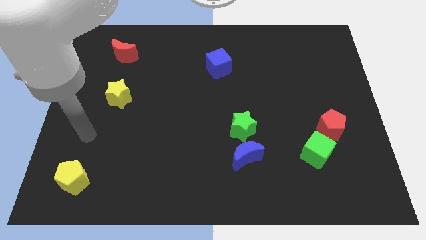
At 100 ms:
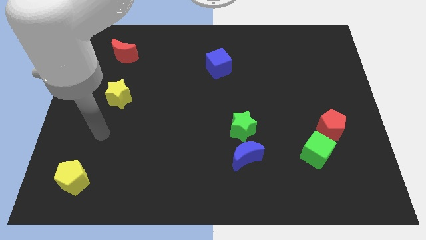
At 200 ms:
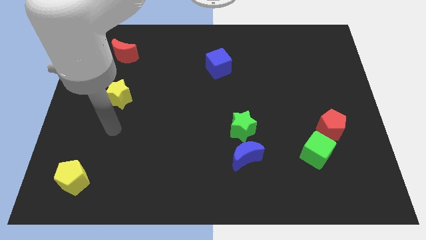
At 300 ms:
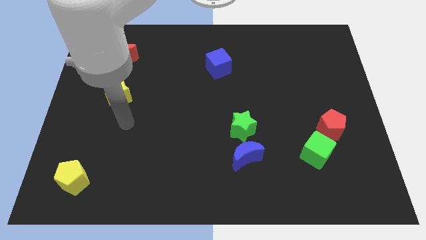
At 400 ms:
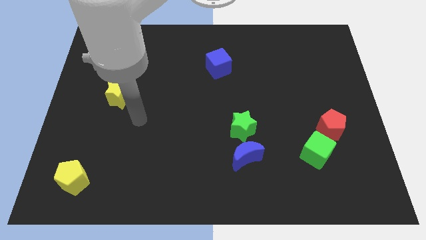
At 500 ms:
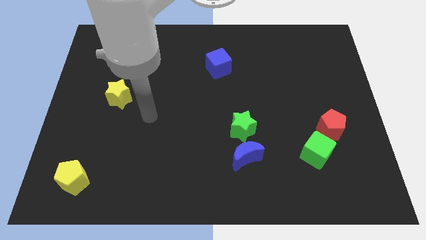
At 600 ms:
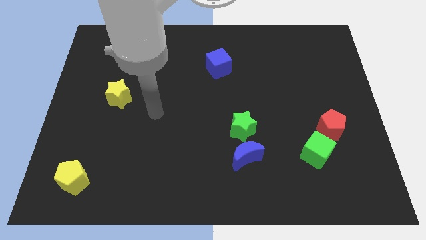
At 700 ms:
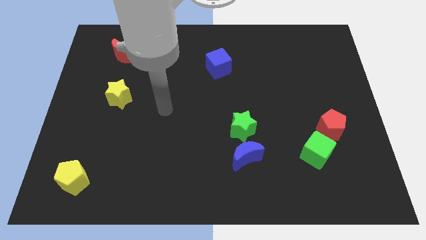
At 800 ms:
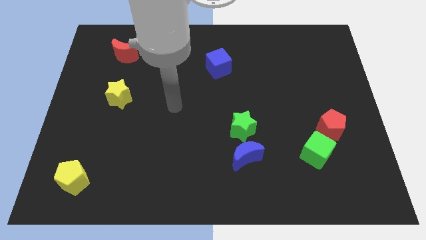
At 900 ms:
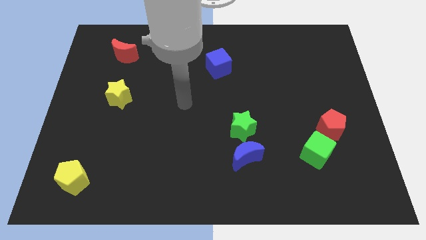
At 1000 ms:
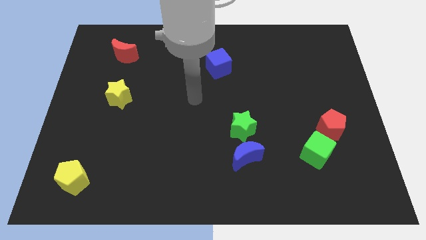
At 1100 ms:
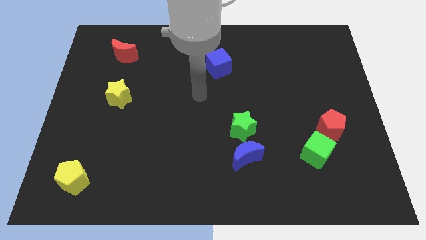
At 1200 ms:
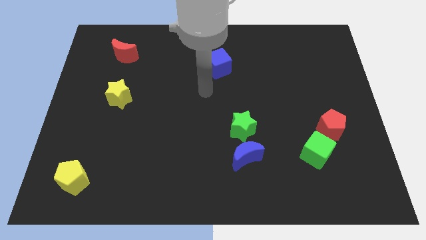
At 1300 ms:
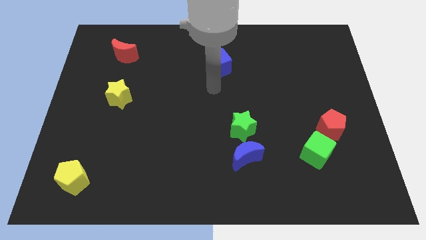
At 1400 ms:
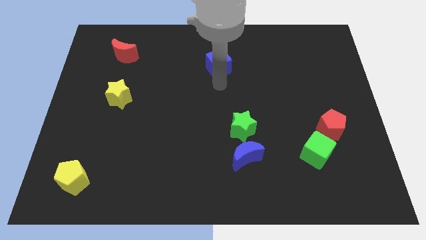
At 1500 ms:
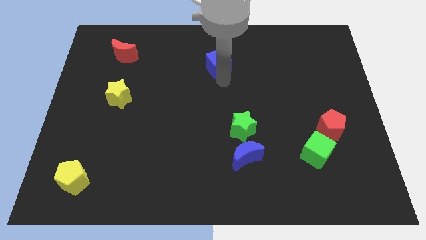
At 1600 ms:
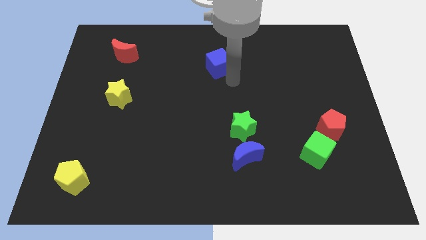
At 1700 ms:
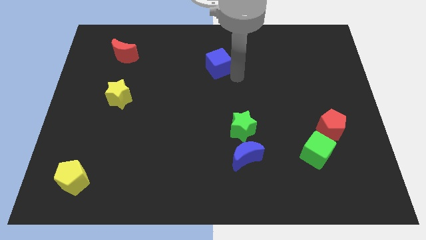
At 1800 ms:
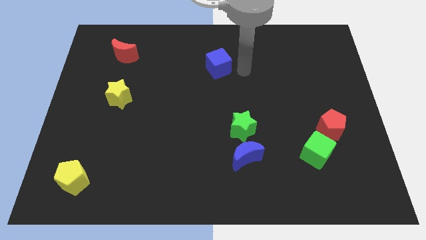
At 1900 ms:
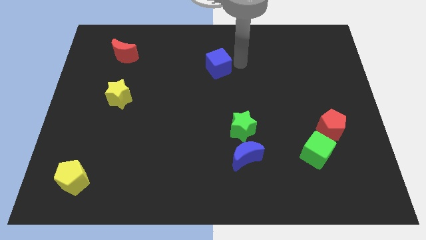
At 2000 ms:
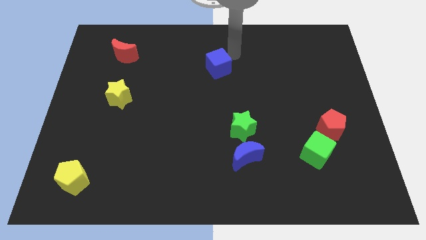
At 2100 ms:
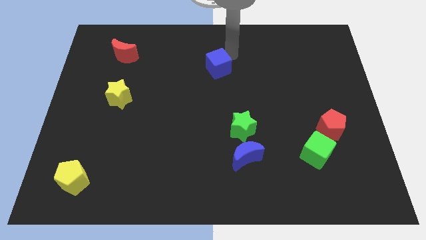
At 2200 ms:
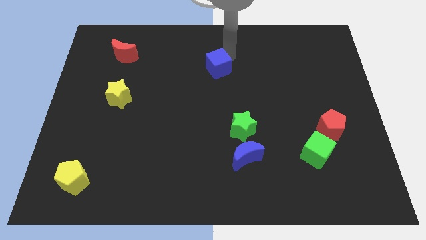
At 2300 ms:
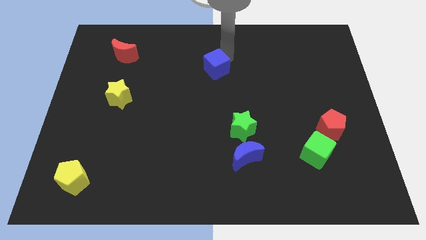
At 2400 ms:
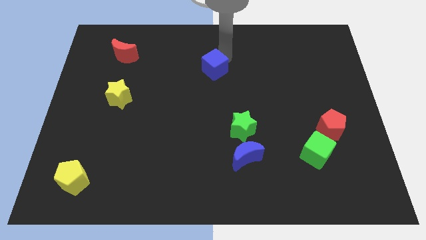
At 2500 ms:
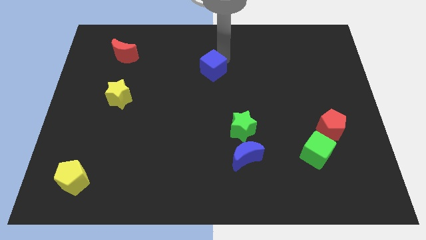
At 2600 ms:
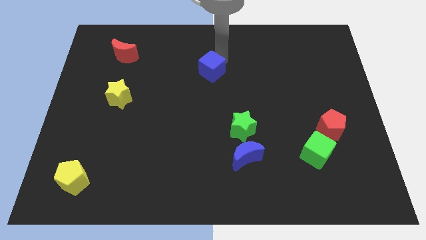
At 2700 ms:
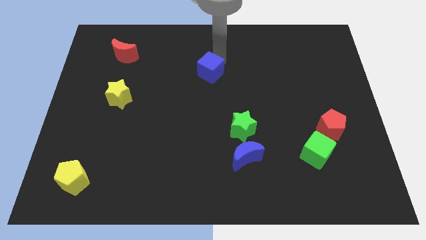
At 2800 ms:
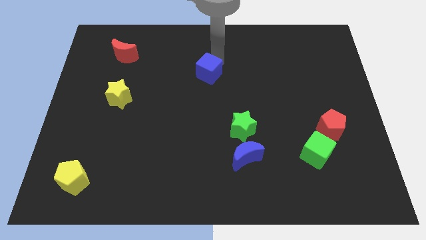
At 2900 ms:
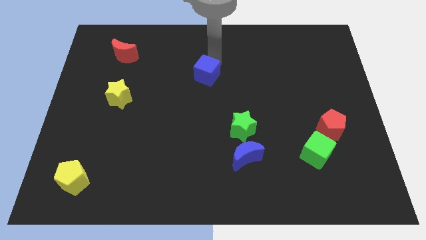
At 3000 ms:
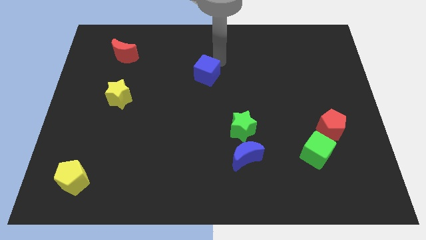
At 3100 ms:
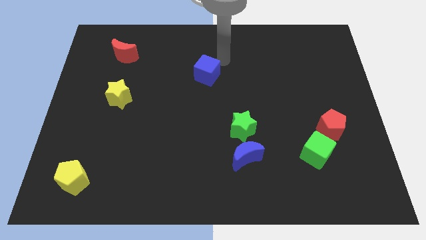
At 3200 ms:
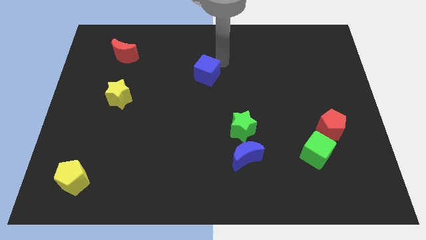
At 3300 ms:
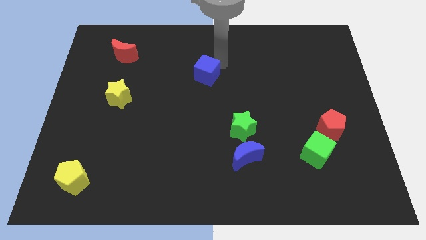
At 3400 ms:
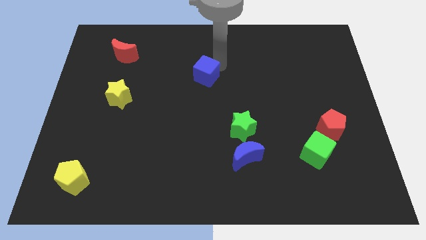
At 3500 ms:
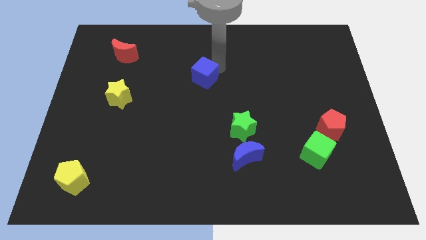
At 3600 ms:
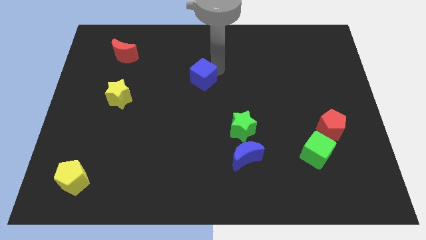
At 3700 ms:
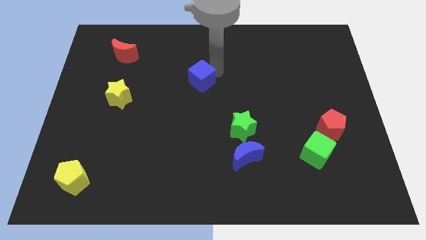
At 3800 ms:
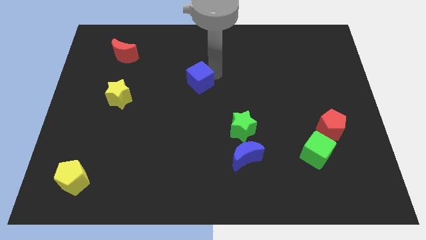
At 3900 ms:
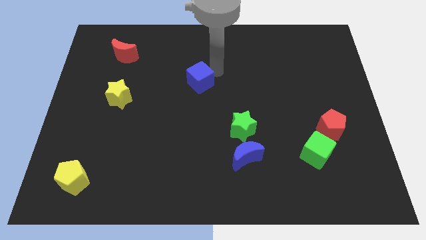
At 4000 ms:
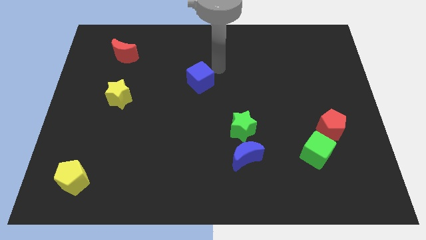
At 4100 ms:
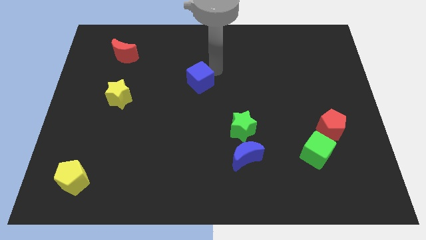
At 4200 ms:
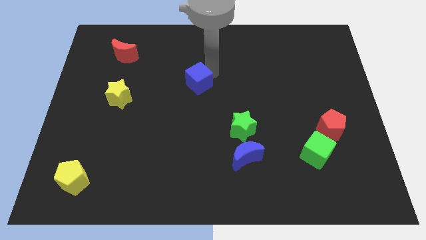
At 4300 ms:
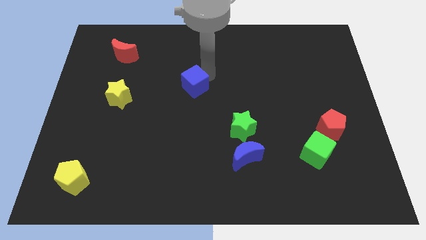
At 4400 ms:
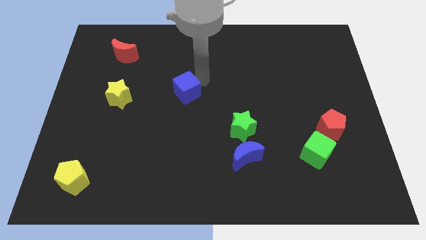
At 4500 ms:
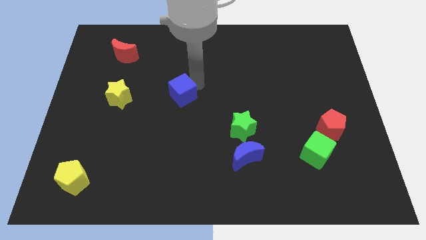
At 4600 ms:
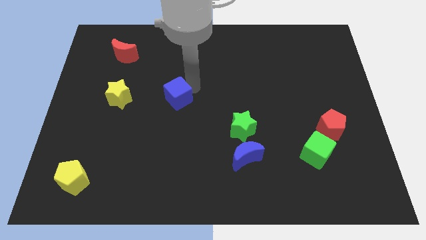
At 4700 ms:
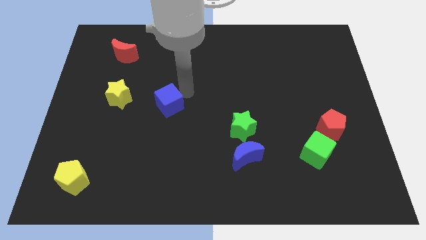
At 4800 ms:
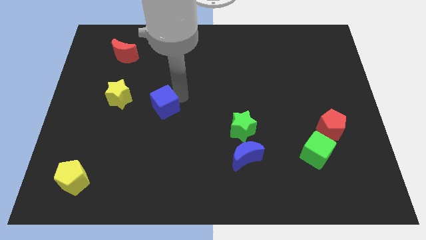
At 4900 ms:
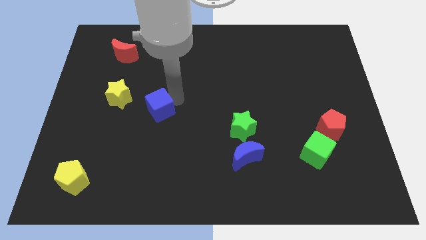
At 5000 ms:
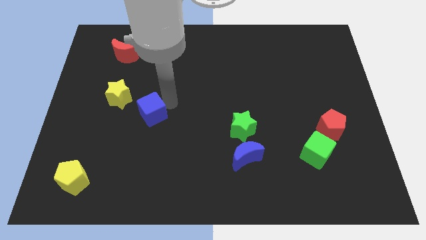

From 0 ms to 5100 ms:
slide the blue cube down and then left

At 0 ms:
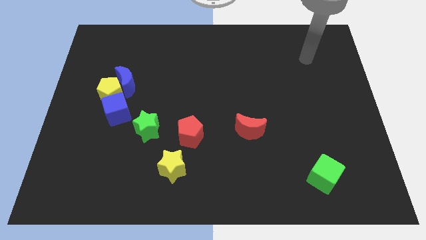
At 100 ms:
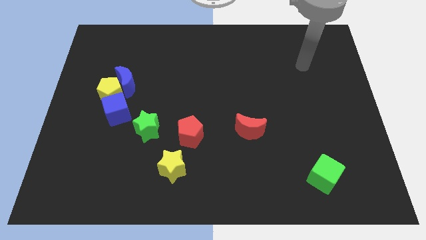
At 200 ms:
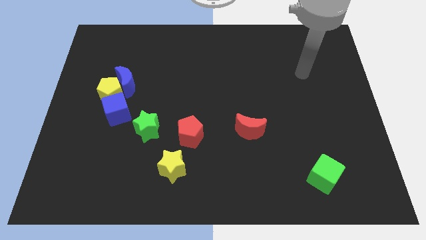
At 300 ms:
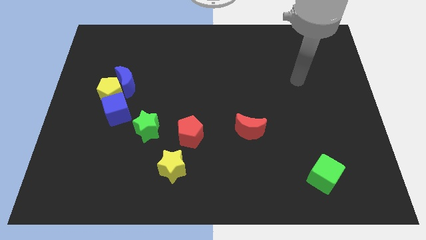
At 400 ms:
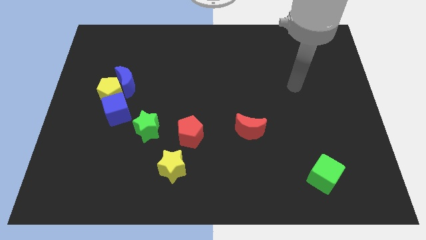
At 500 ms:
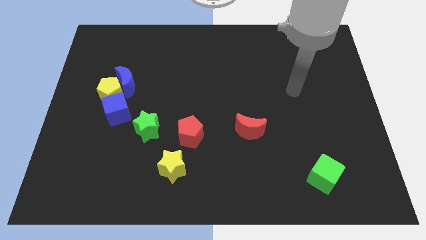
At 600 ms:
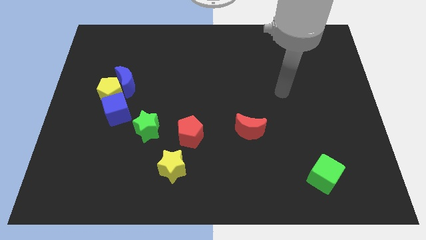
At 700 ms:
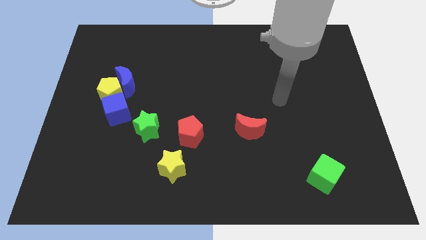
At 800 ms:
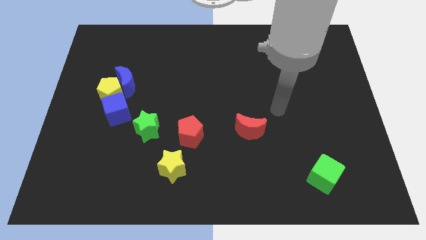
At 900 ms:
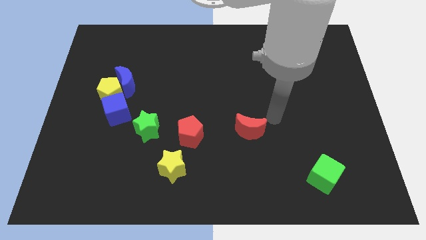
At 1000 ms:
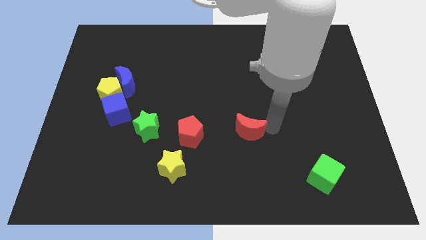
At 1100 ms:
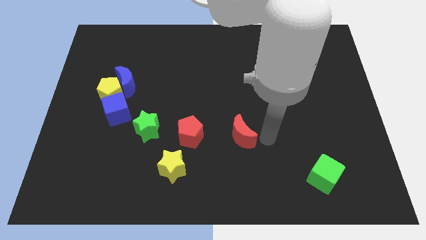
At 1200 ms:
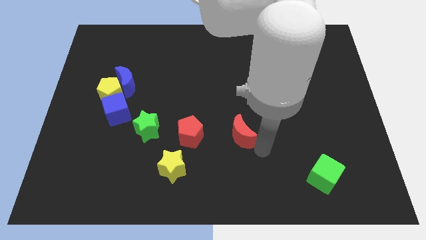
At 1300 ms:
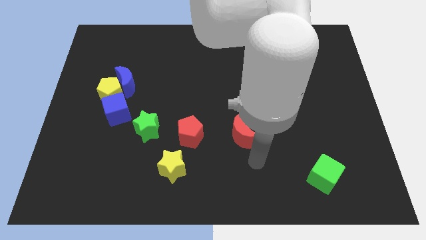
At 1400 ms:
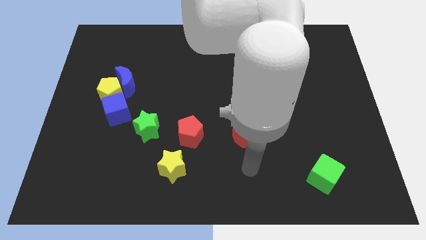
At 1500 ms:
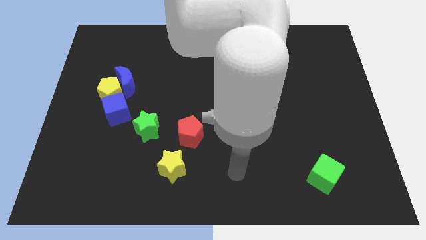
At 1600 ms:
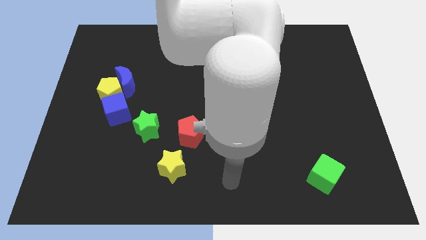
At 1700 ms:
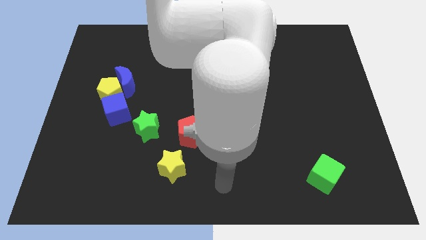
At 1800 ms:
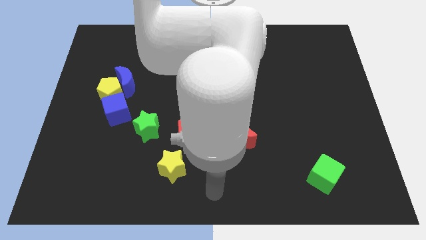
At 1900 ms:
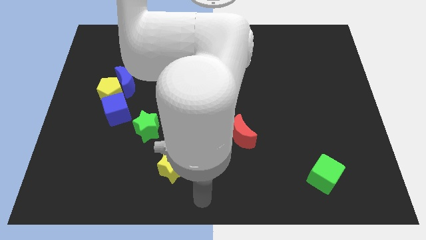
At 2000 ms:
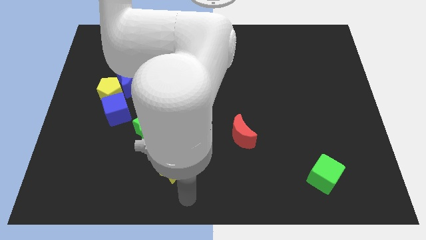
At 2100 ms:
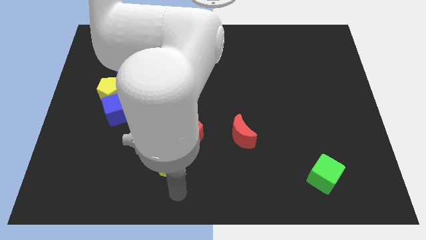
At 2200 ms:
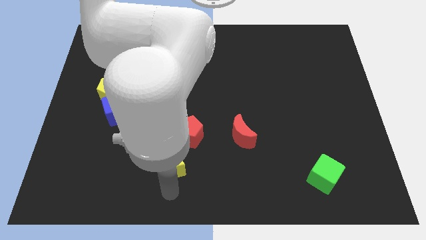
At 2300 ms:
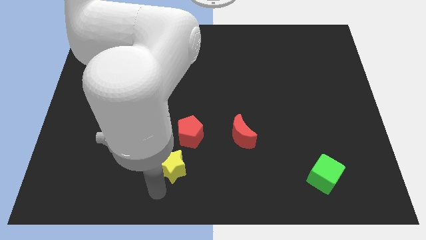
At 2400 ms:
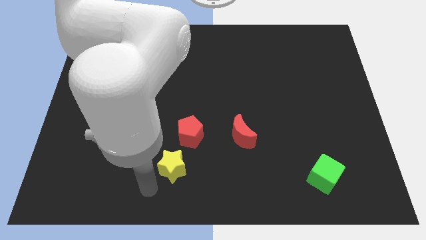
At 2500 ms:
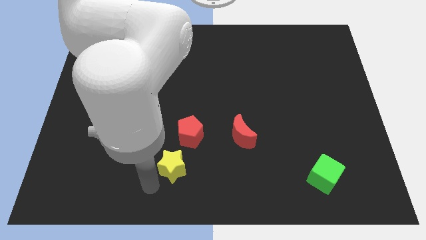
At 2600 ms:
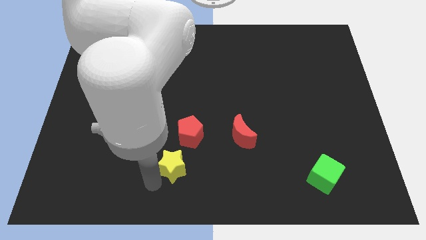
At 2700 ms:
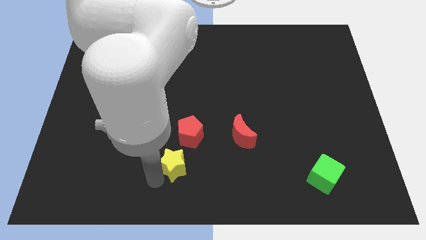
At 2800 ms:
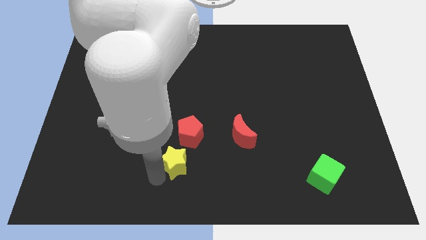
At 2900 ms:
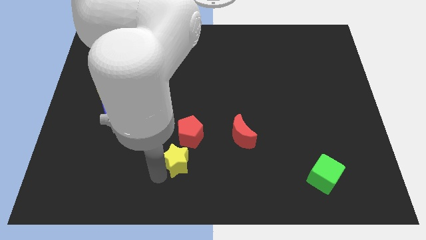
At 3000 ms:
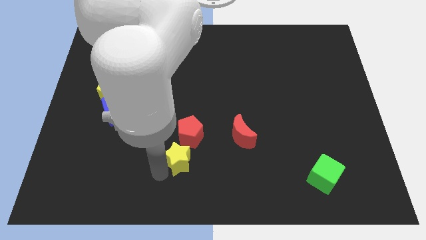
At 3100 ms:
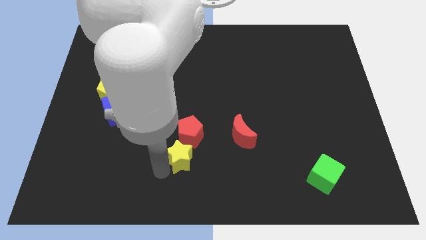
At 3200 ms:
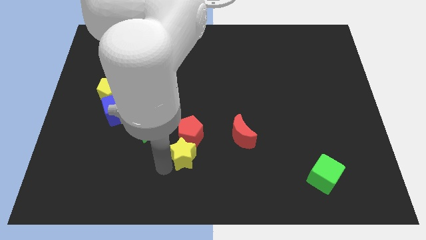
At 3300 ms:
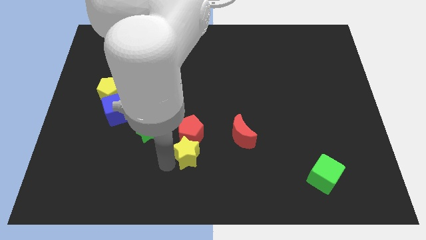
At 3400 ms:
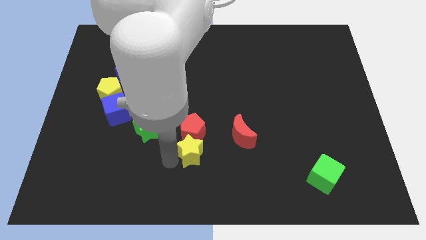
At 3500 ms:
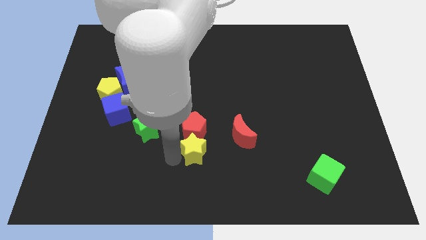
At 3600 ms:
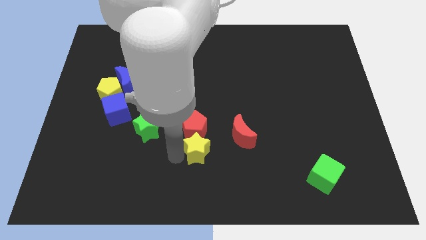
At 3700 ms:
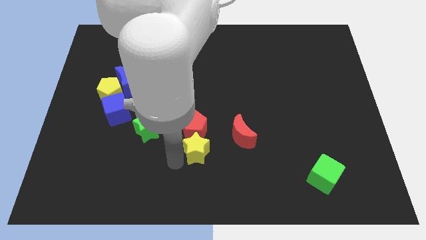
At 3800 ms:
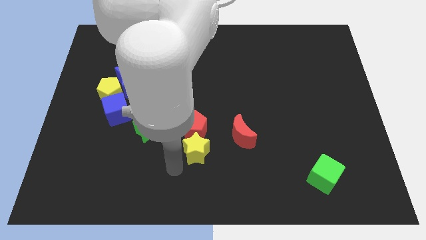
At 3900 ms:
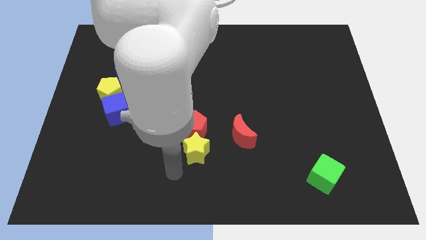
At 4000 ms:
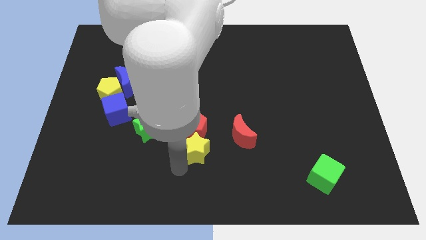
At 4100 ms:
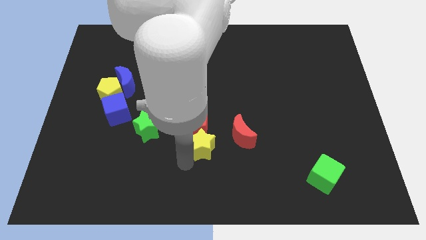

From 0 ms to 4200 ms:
push the yellow star diagonally up and to the right somewhat
